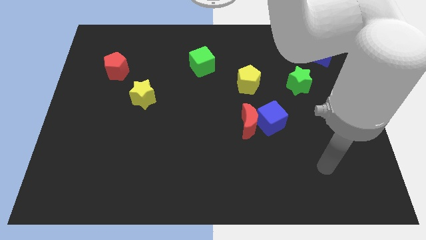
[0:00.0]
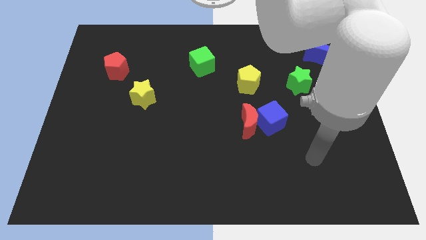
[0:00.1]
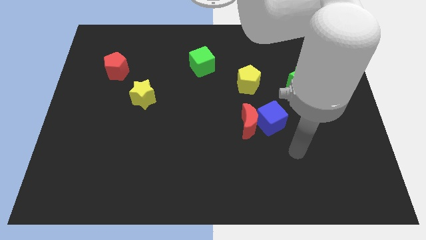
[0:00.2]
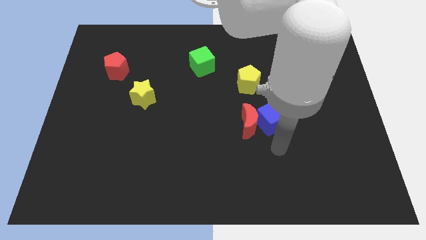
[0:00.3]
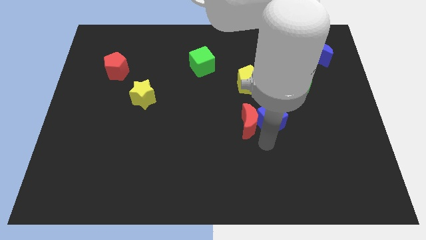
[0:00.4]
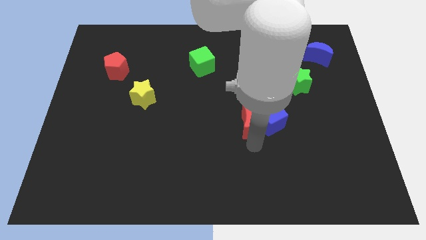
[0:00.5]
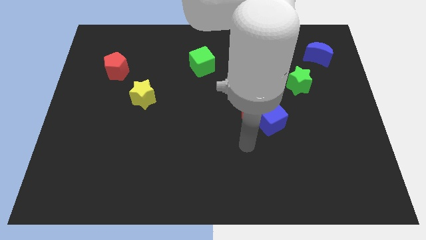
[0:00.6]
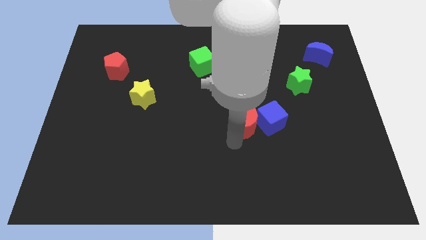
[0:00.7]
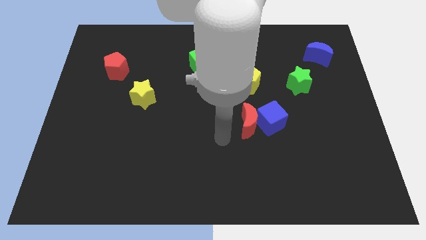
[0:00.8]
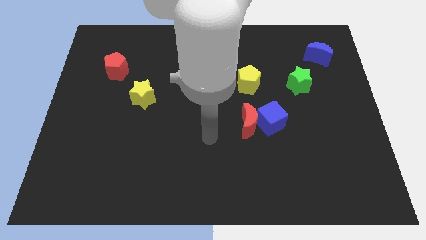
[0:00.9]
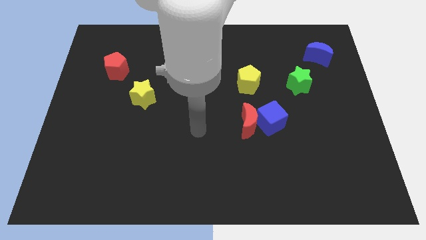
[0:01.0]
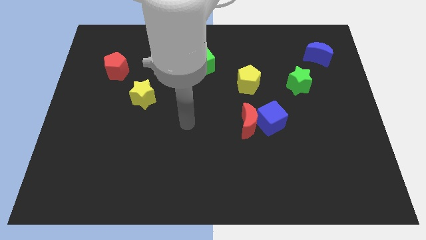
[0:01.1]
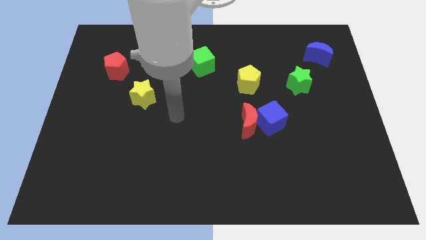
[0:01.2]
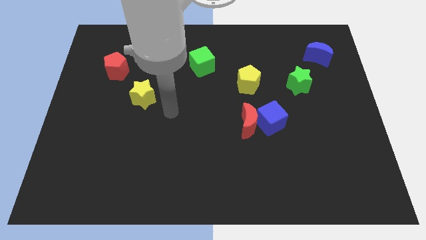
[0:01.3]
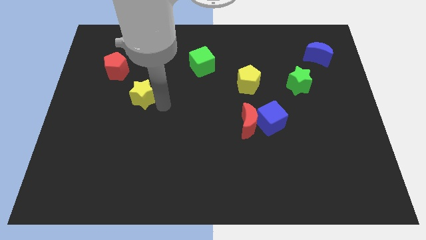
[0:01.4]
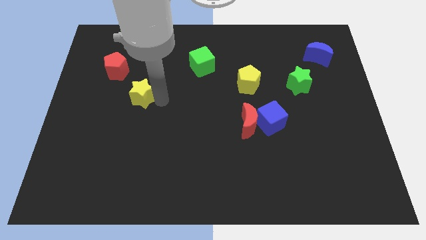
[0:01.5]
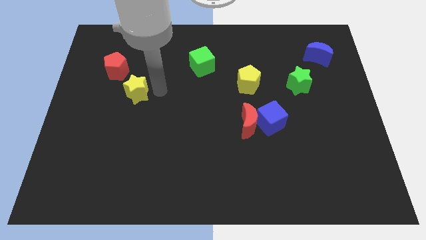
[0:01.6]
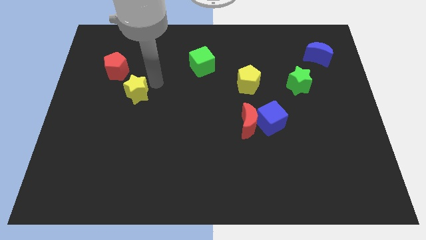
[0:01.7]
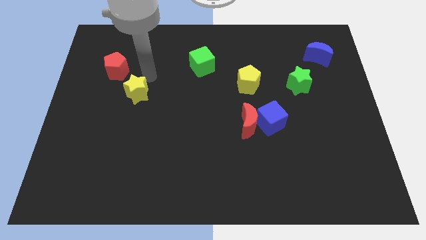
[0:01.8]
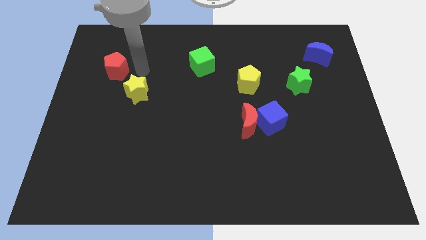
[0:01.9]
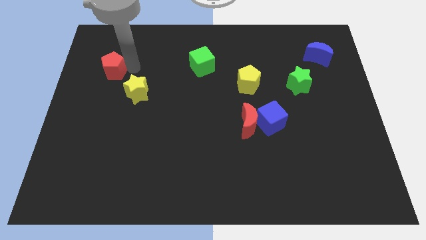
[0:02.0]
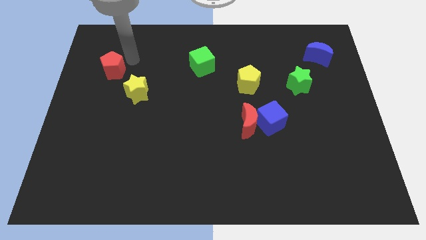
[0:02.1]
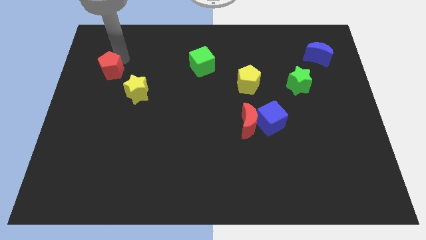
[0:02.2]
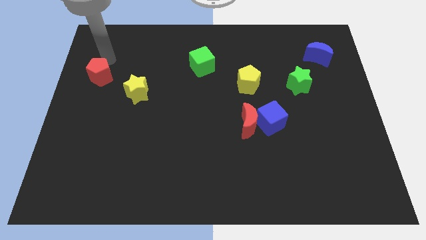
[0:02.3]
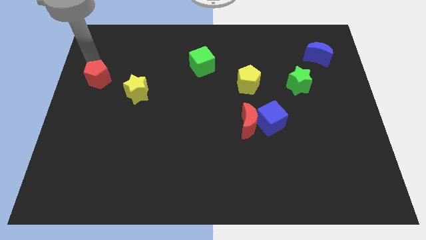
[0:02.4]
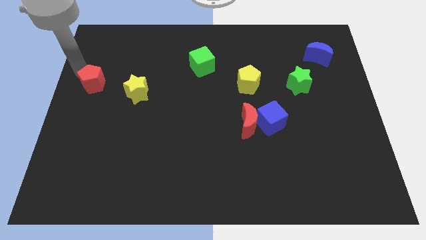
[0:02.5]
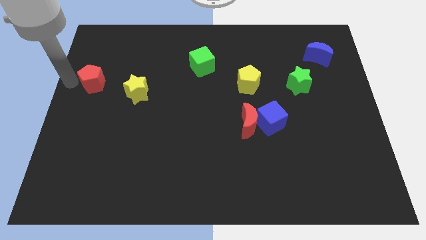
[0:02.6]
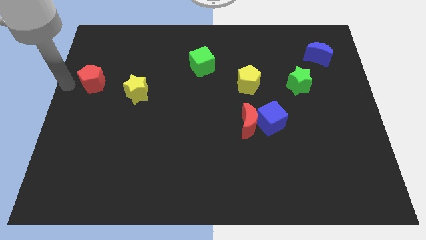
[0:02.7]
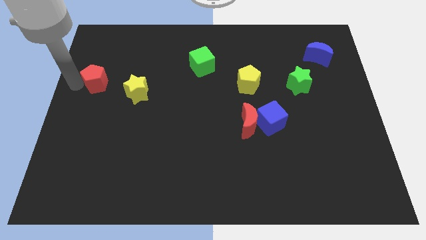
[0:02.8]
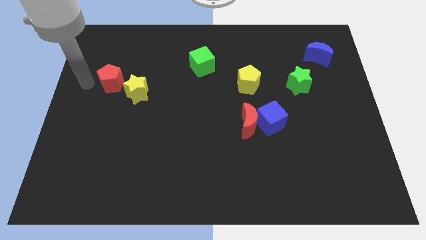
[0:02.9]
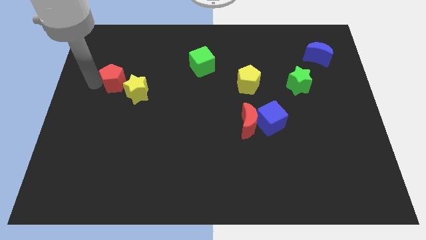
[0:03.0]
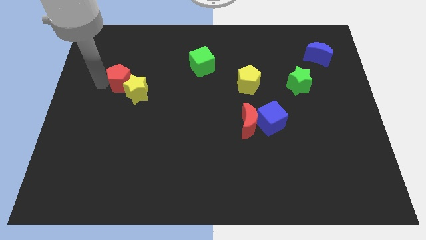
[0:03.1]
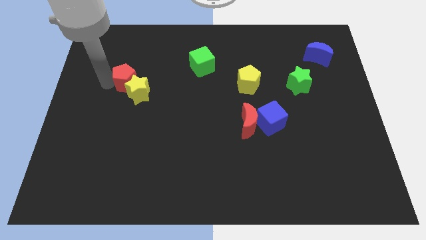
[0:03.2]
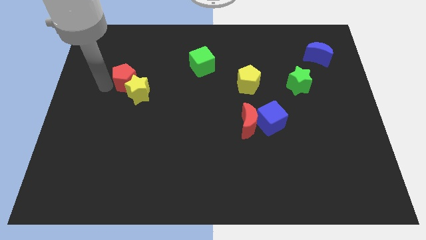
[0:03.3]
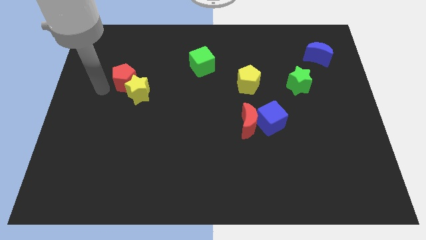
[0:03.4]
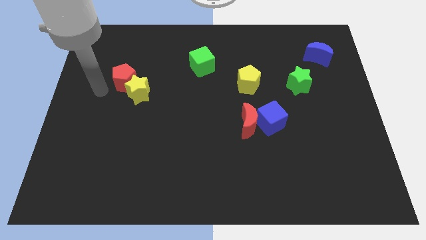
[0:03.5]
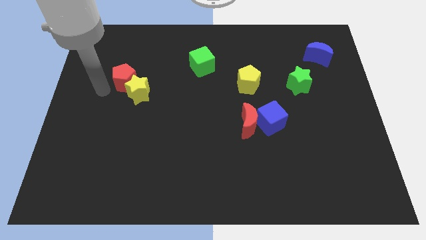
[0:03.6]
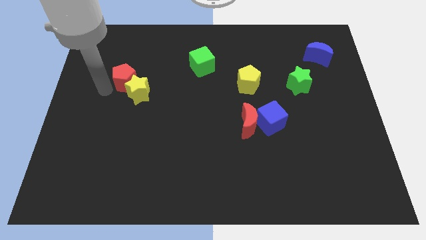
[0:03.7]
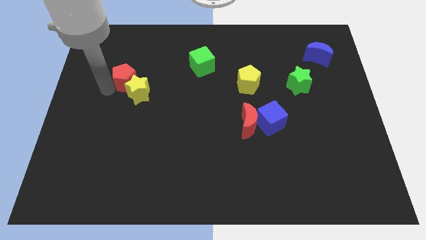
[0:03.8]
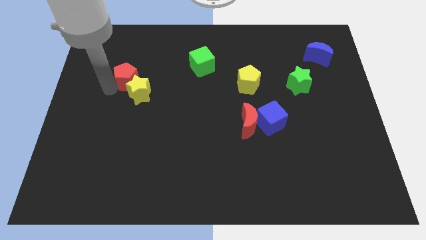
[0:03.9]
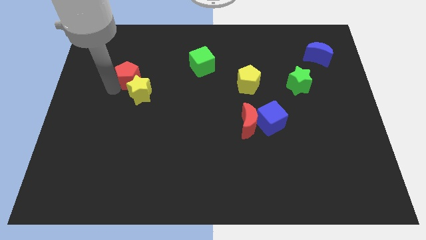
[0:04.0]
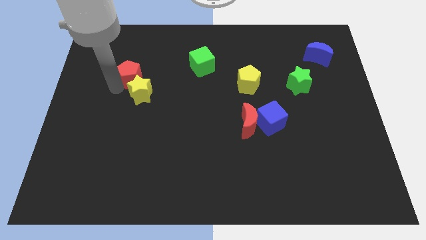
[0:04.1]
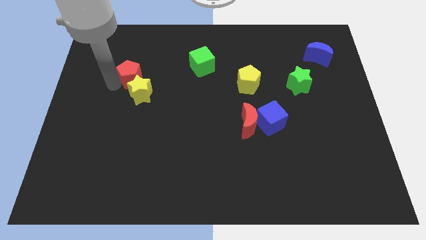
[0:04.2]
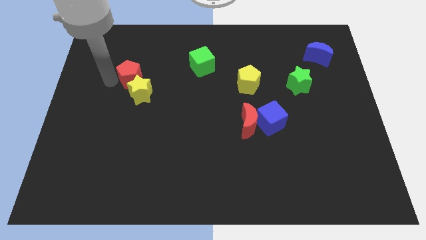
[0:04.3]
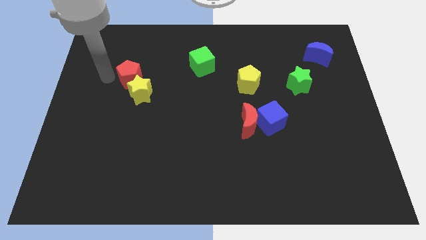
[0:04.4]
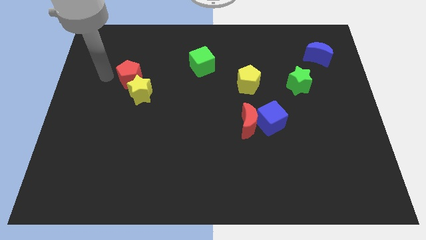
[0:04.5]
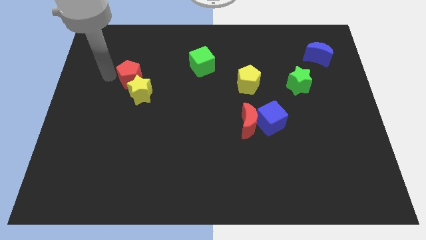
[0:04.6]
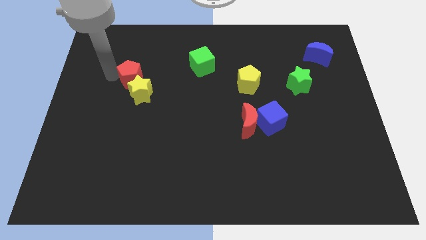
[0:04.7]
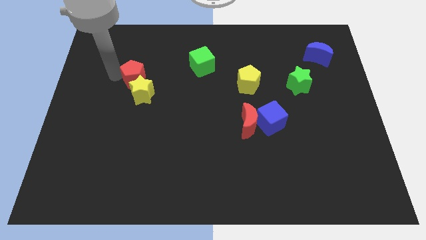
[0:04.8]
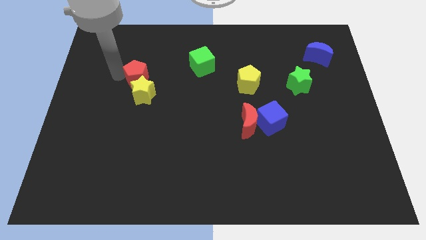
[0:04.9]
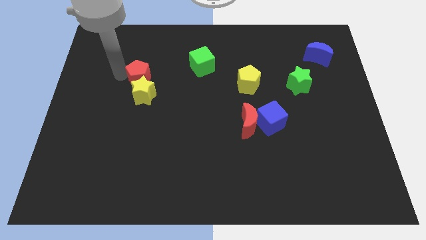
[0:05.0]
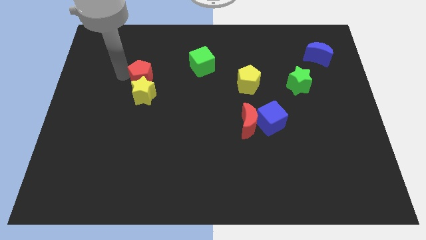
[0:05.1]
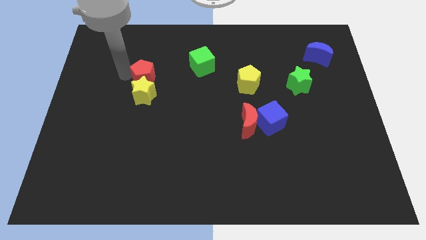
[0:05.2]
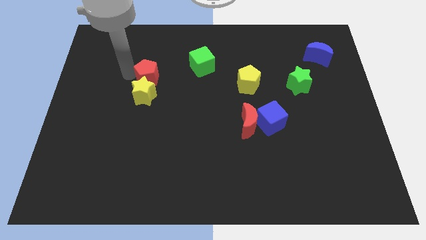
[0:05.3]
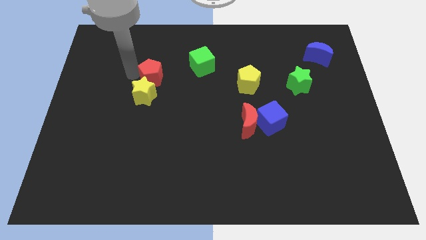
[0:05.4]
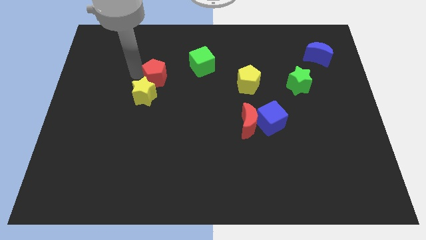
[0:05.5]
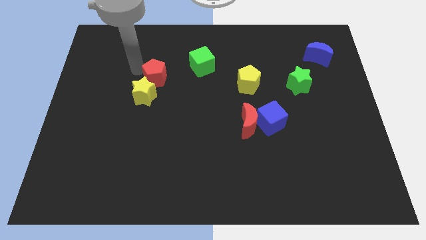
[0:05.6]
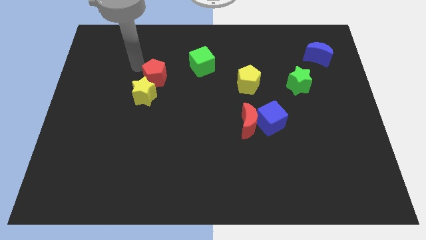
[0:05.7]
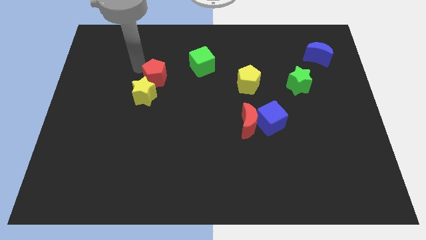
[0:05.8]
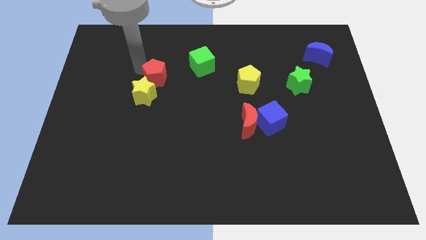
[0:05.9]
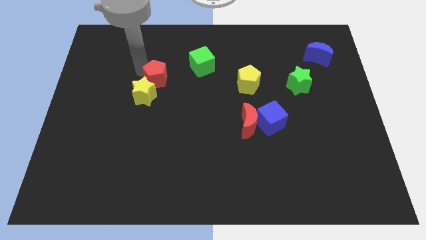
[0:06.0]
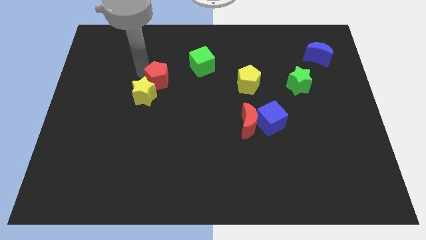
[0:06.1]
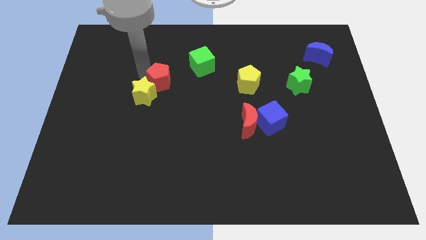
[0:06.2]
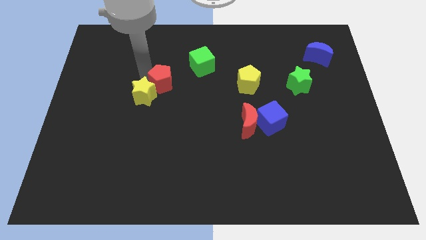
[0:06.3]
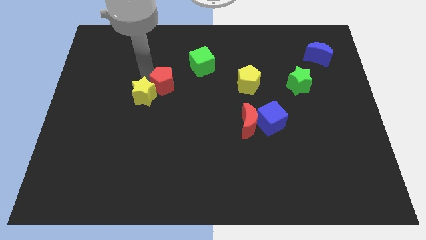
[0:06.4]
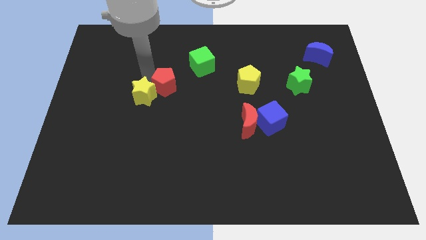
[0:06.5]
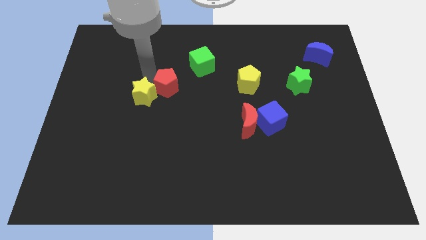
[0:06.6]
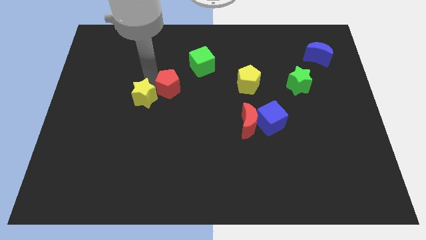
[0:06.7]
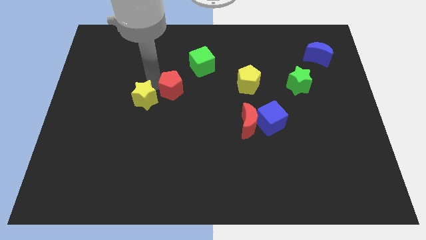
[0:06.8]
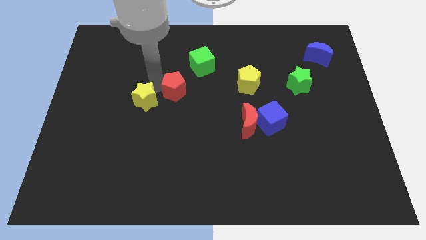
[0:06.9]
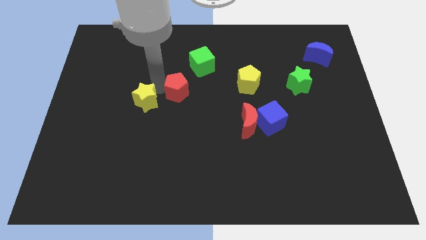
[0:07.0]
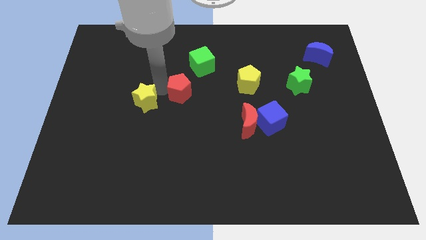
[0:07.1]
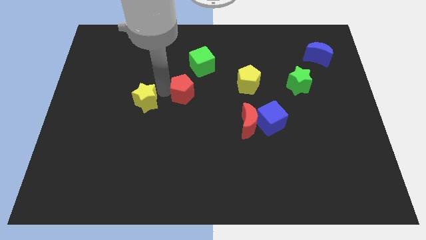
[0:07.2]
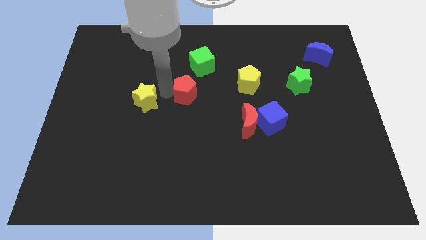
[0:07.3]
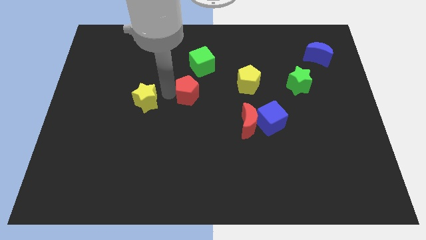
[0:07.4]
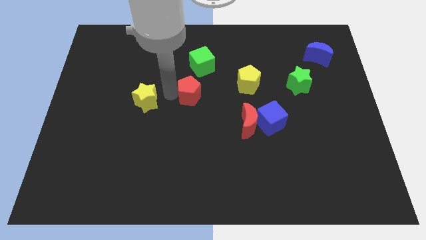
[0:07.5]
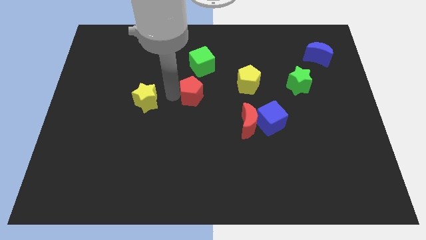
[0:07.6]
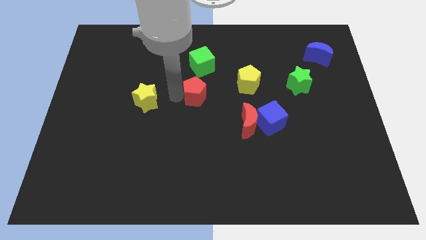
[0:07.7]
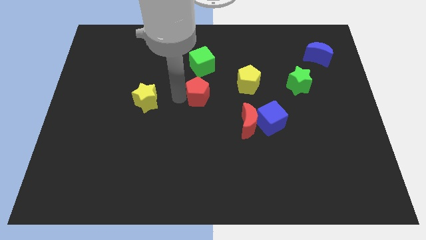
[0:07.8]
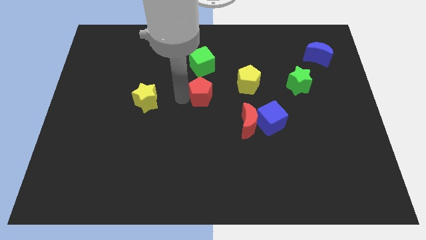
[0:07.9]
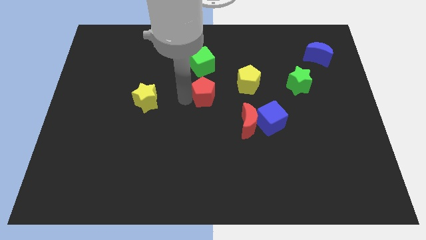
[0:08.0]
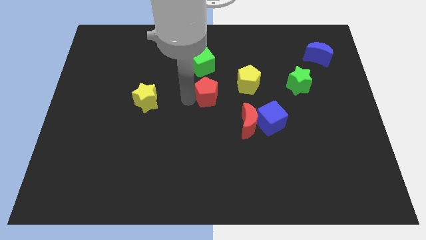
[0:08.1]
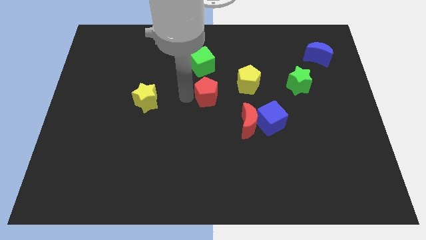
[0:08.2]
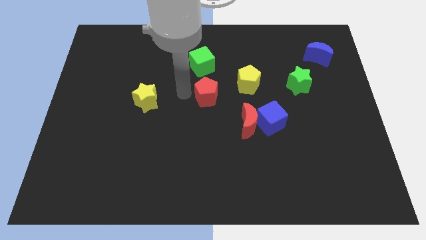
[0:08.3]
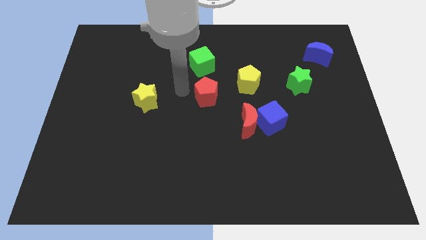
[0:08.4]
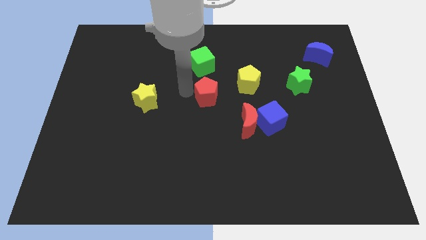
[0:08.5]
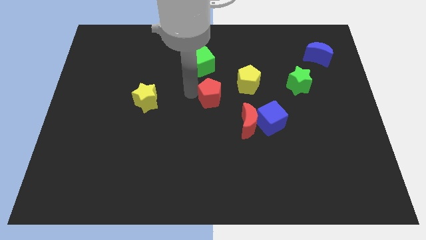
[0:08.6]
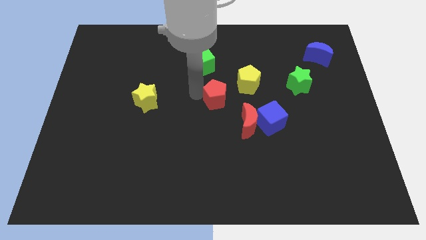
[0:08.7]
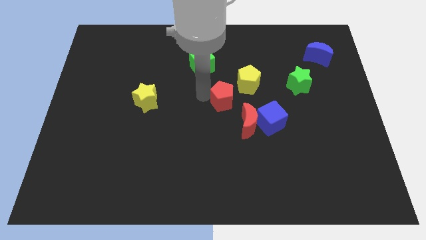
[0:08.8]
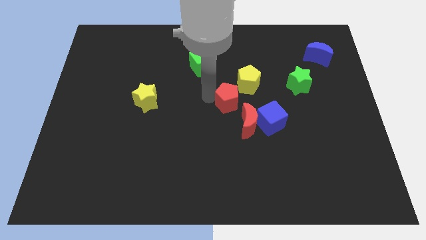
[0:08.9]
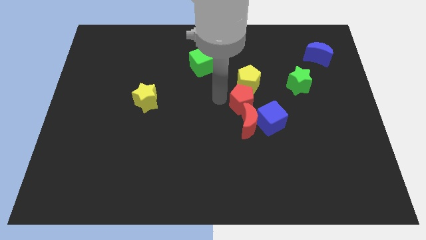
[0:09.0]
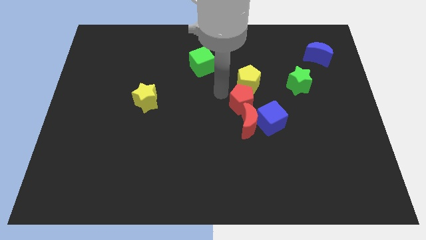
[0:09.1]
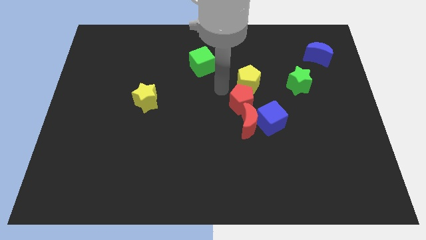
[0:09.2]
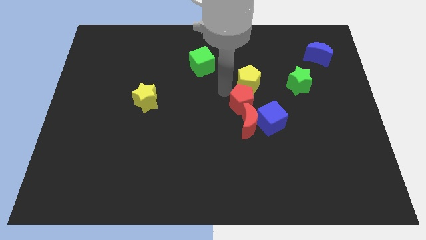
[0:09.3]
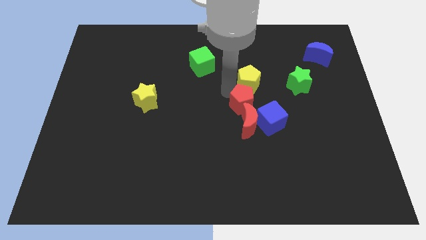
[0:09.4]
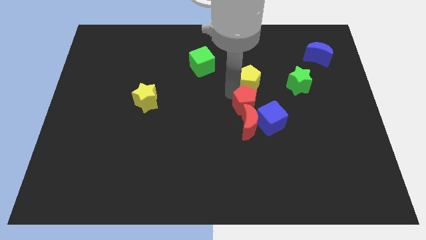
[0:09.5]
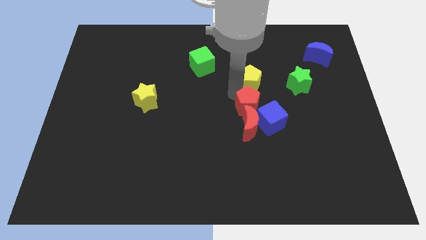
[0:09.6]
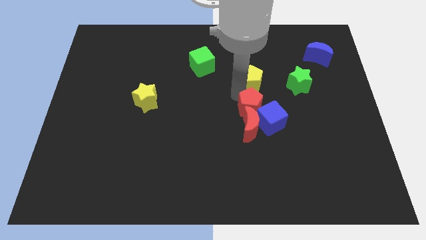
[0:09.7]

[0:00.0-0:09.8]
slide the red pentagon close to the blue cube
